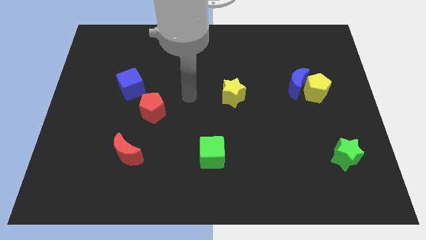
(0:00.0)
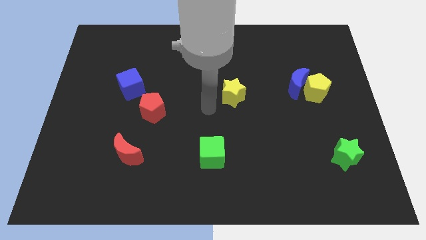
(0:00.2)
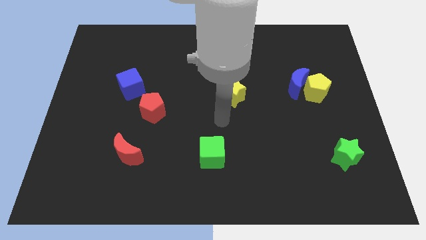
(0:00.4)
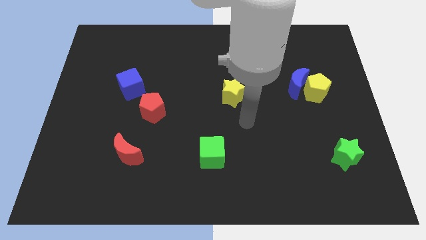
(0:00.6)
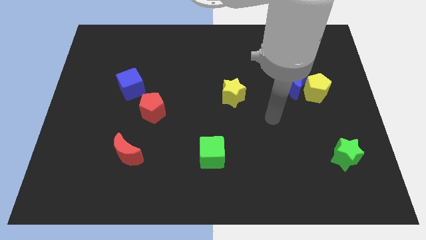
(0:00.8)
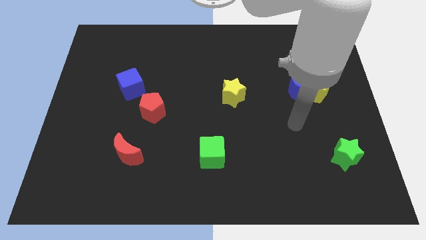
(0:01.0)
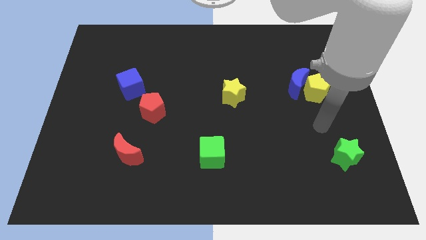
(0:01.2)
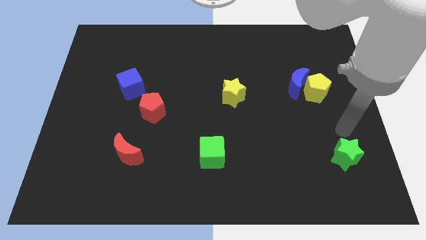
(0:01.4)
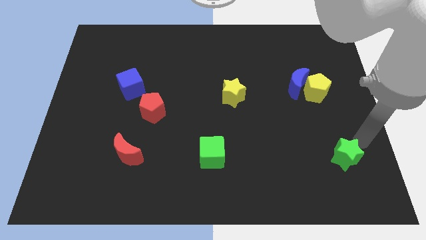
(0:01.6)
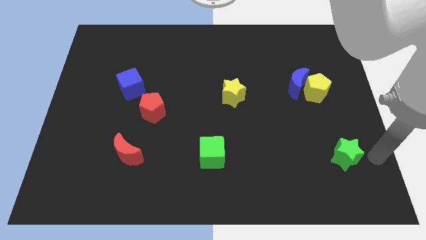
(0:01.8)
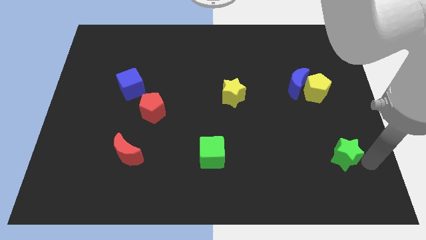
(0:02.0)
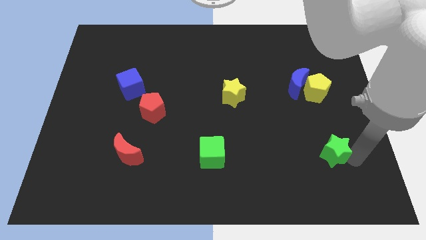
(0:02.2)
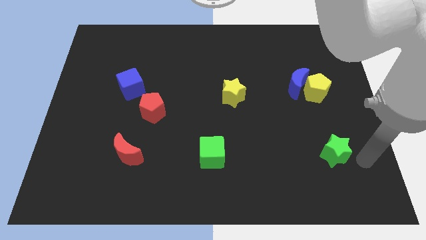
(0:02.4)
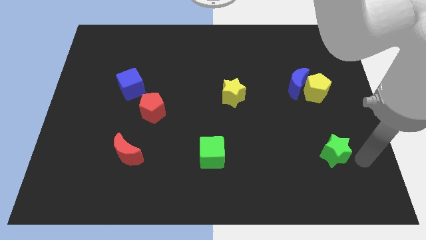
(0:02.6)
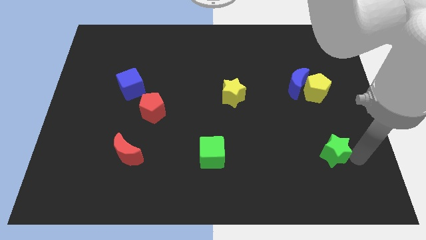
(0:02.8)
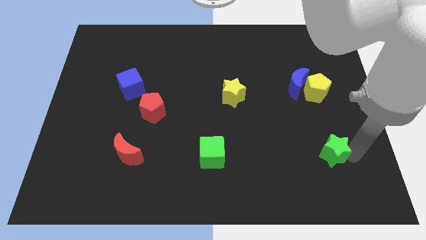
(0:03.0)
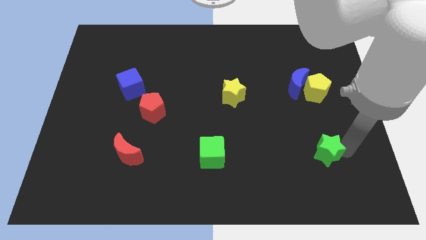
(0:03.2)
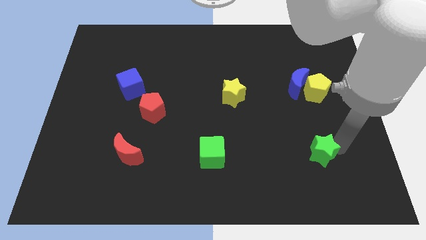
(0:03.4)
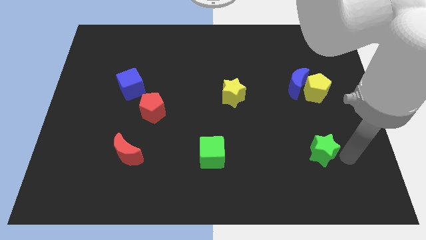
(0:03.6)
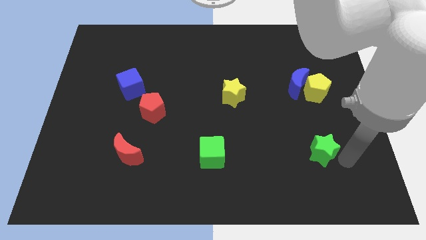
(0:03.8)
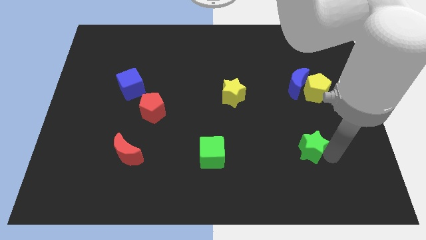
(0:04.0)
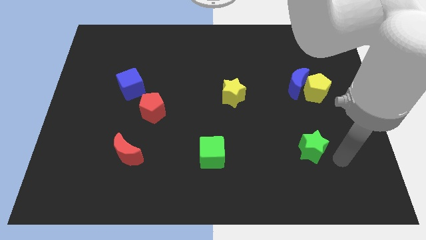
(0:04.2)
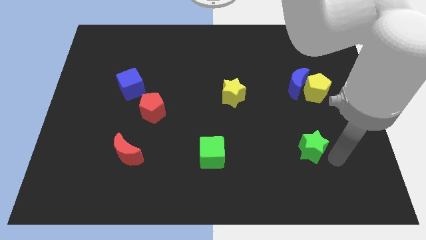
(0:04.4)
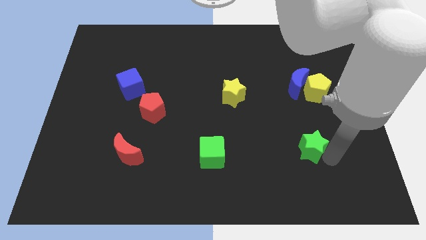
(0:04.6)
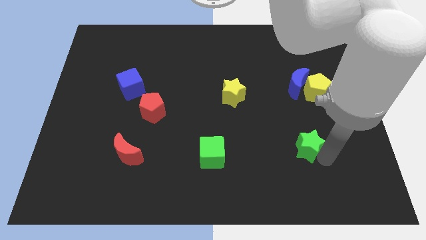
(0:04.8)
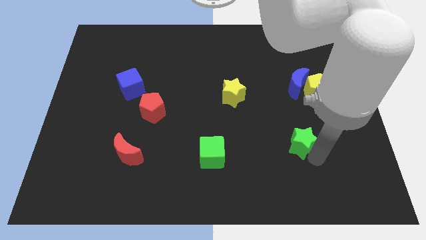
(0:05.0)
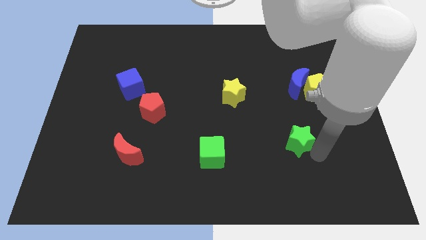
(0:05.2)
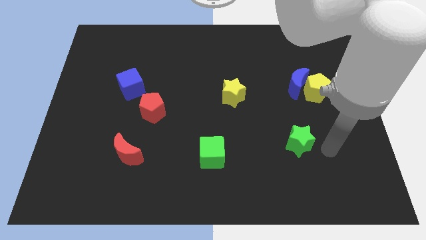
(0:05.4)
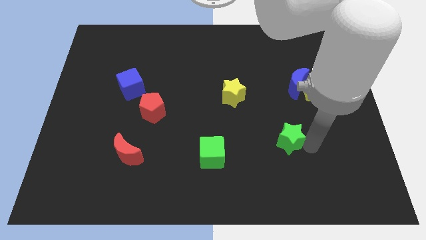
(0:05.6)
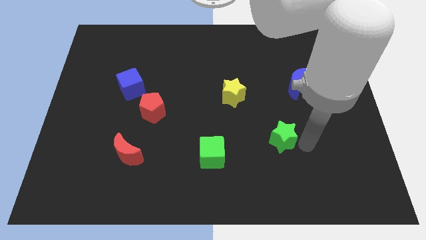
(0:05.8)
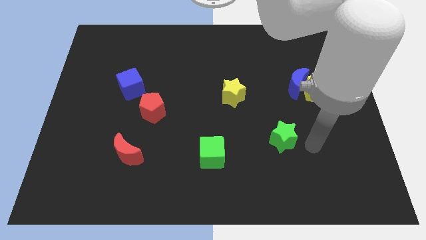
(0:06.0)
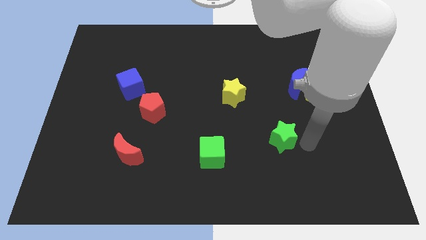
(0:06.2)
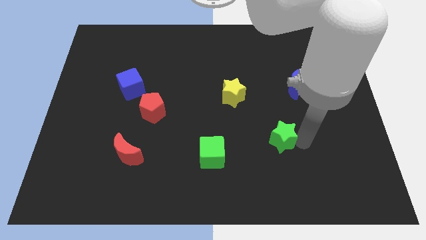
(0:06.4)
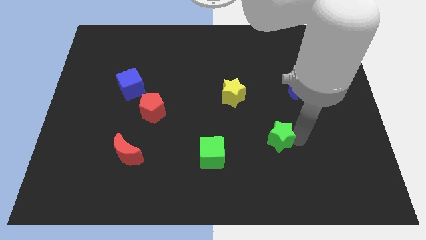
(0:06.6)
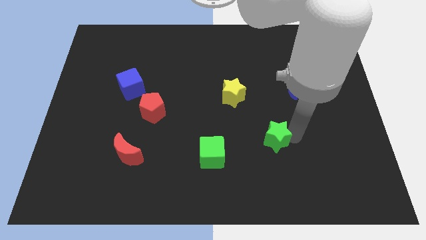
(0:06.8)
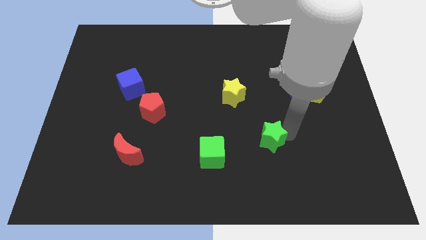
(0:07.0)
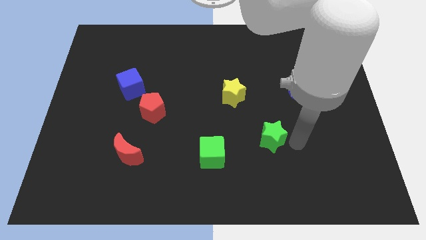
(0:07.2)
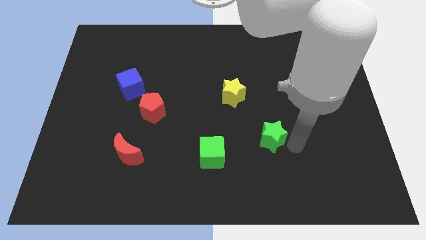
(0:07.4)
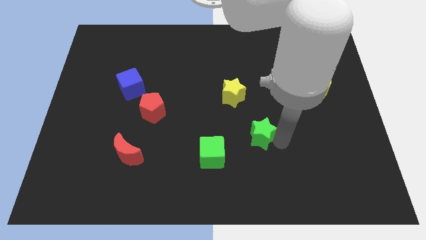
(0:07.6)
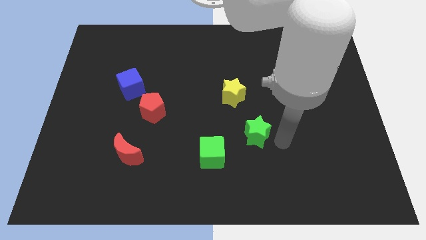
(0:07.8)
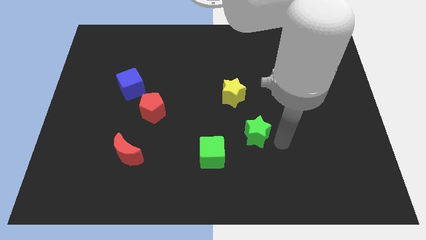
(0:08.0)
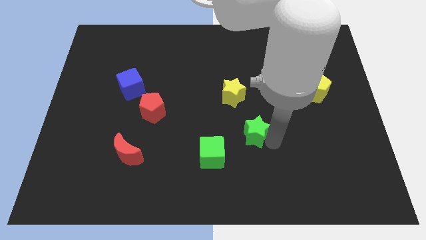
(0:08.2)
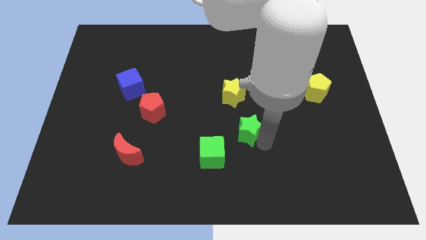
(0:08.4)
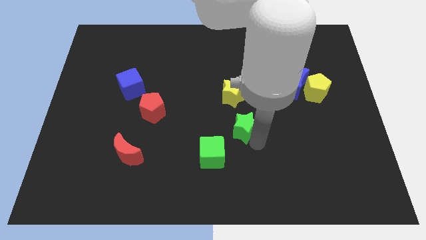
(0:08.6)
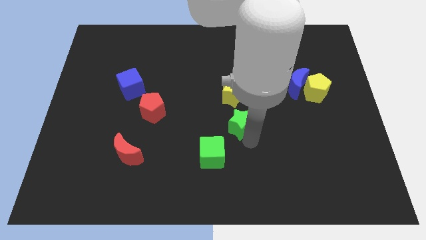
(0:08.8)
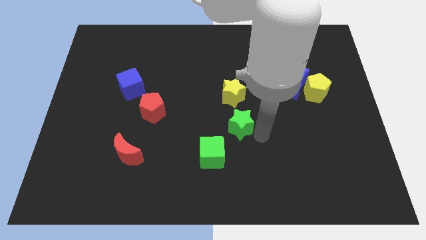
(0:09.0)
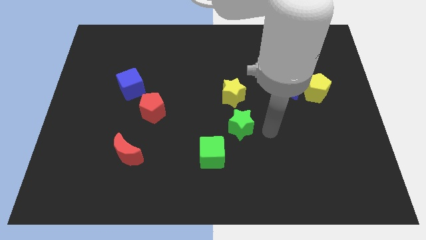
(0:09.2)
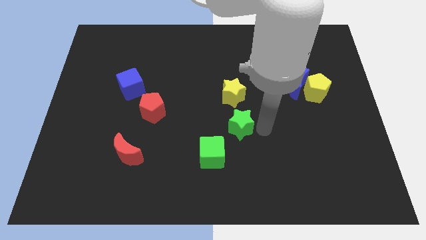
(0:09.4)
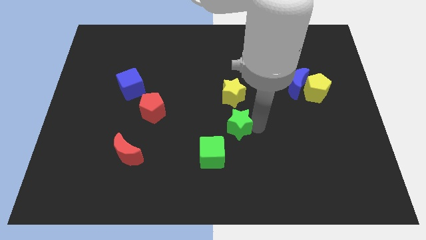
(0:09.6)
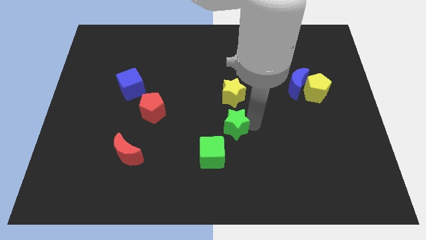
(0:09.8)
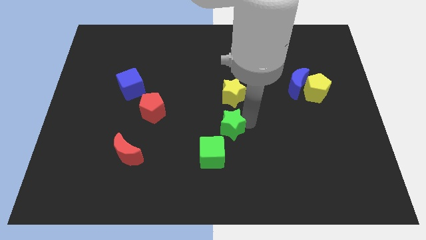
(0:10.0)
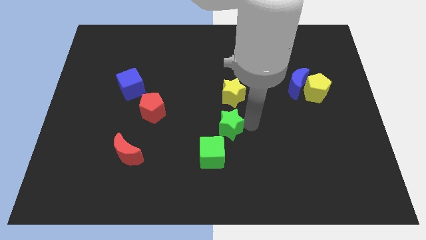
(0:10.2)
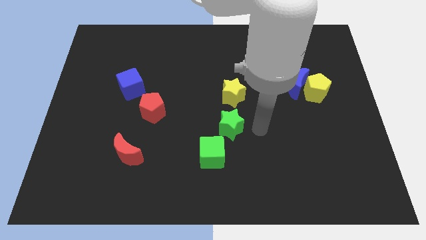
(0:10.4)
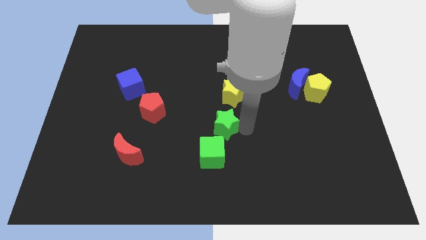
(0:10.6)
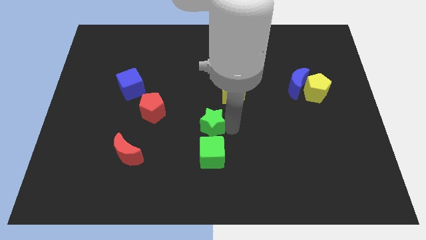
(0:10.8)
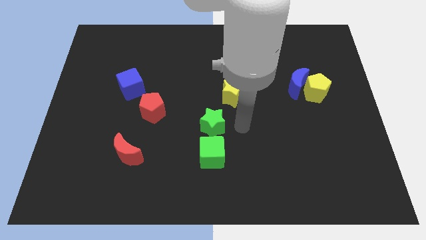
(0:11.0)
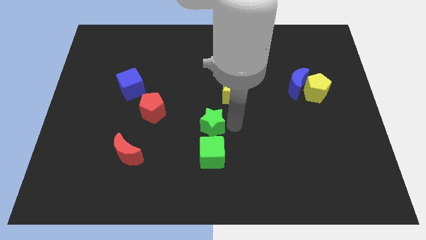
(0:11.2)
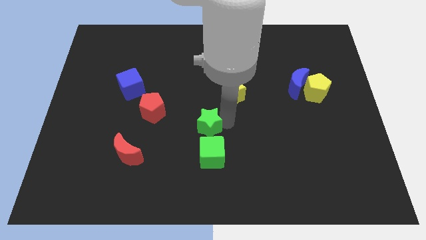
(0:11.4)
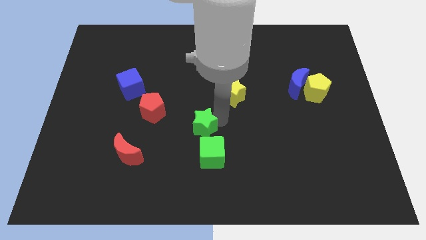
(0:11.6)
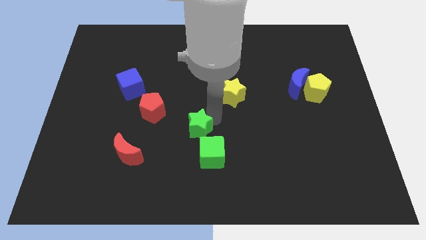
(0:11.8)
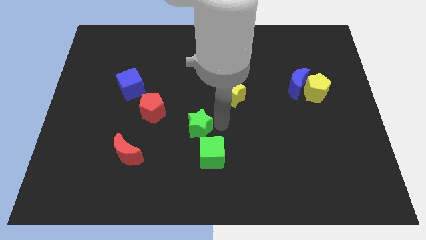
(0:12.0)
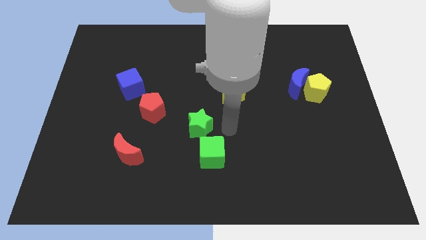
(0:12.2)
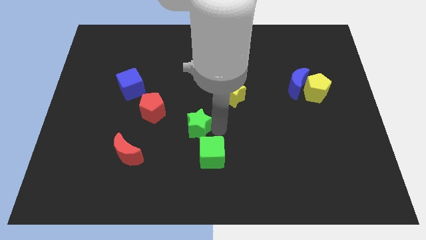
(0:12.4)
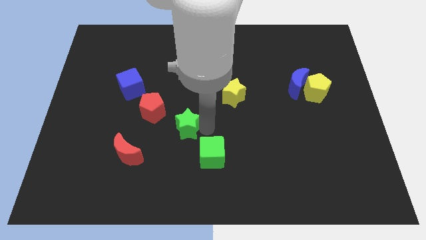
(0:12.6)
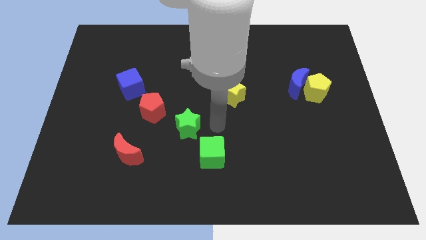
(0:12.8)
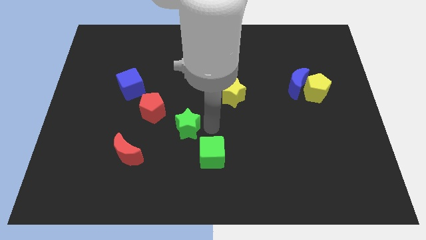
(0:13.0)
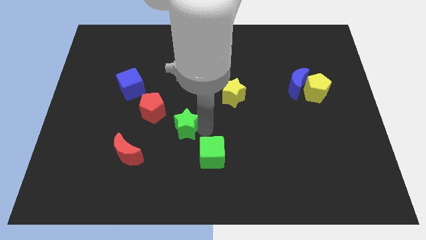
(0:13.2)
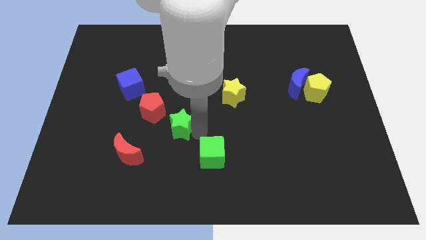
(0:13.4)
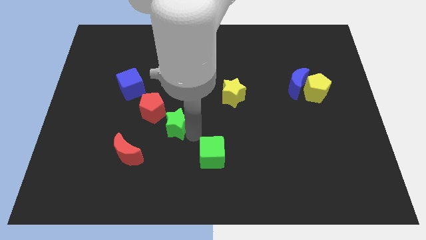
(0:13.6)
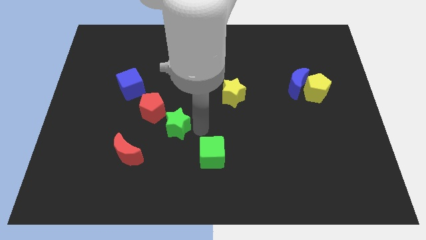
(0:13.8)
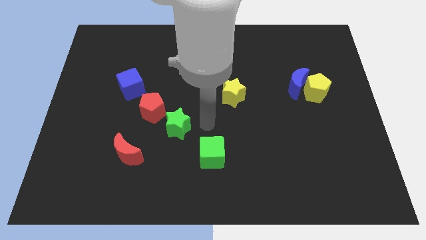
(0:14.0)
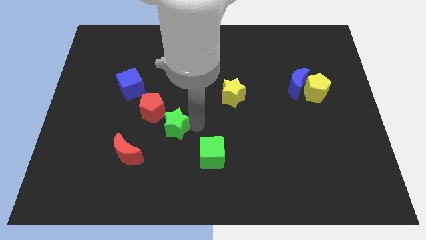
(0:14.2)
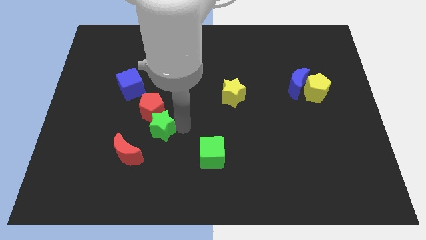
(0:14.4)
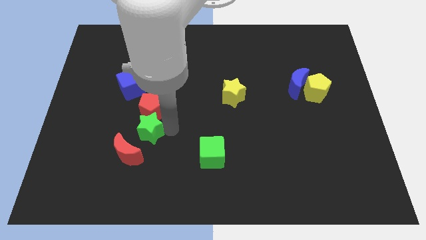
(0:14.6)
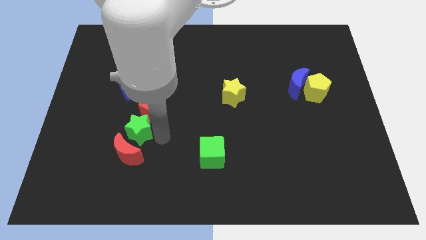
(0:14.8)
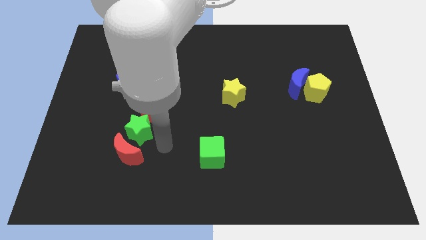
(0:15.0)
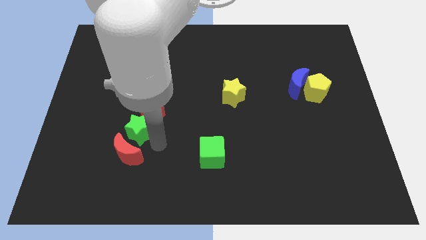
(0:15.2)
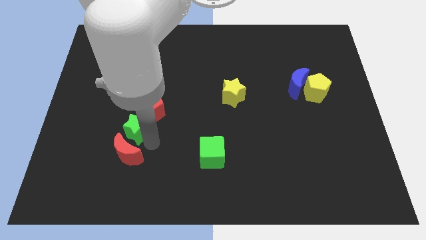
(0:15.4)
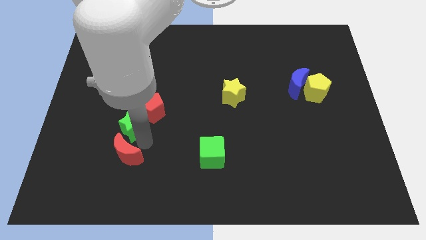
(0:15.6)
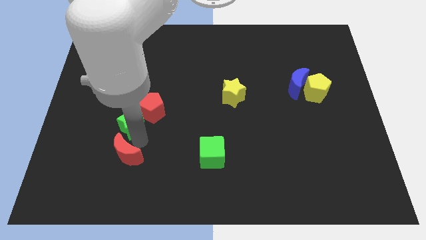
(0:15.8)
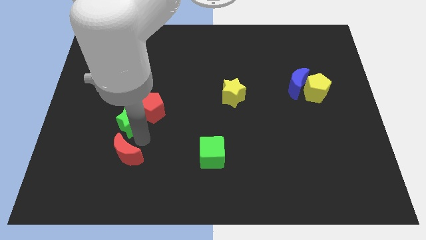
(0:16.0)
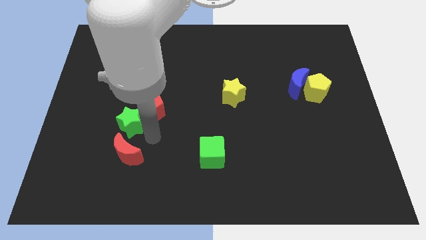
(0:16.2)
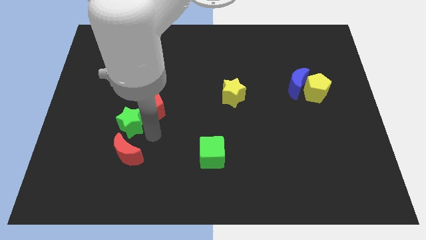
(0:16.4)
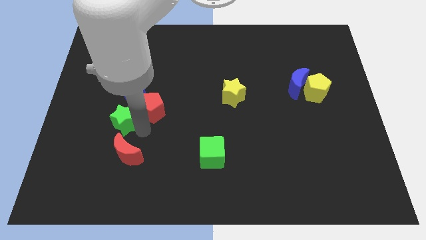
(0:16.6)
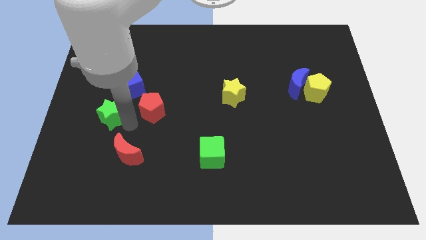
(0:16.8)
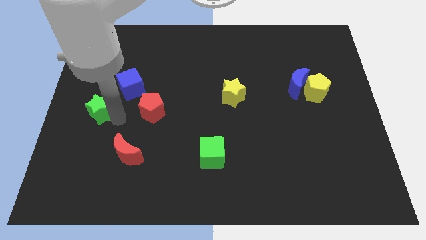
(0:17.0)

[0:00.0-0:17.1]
slide the green star to the center left
